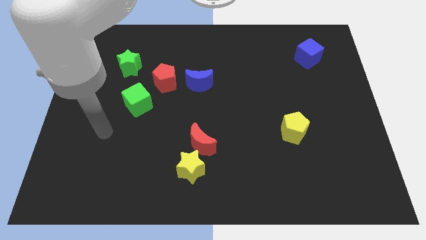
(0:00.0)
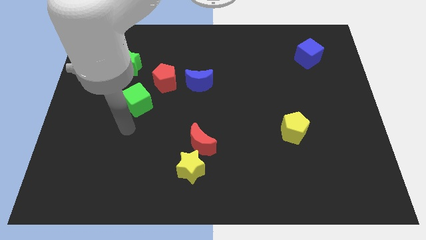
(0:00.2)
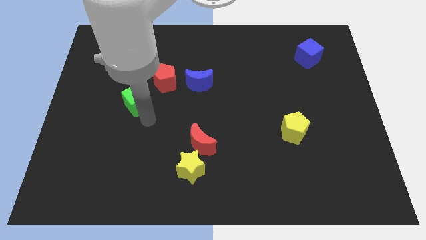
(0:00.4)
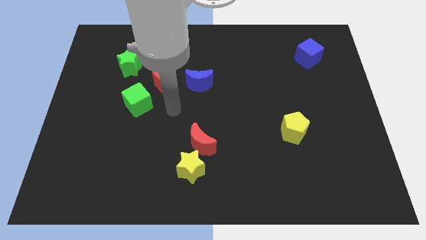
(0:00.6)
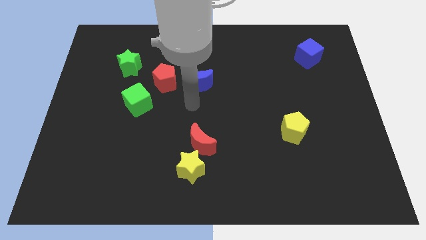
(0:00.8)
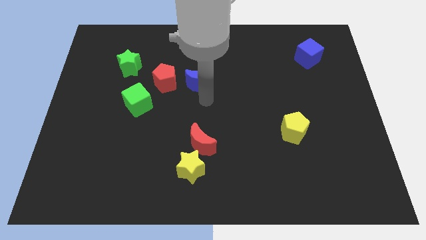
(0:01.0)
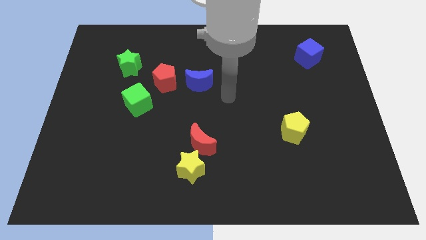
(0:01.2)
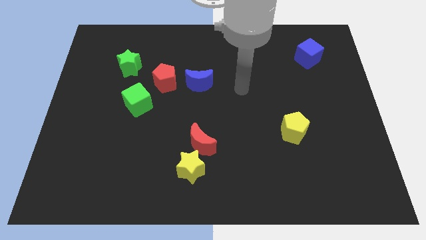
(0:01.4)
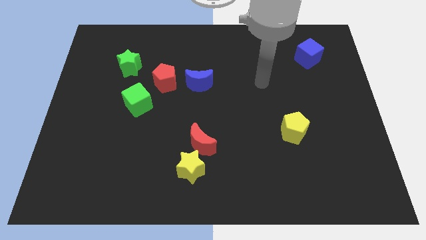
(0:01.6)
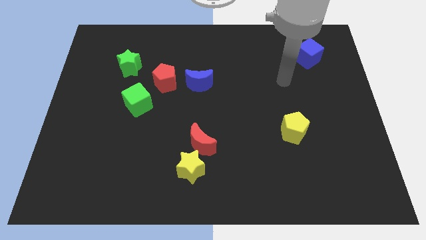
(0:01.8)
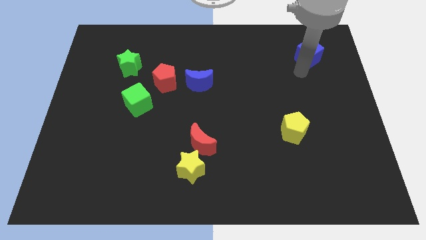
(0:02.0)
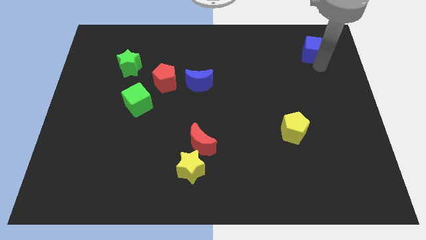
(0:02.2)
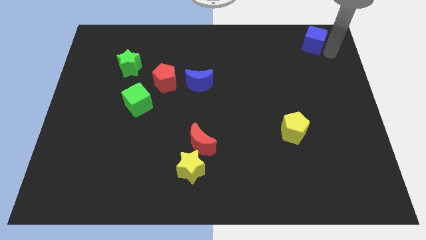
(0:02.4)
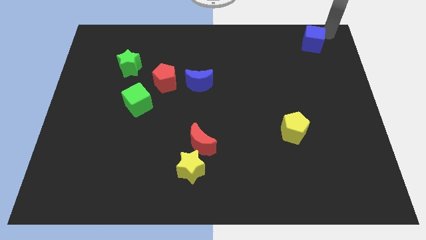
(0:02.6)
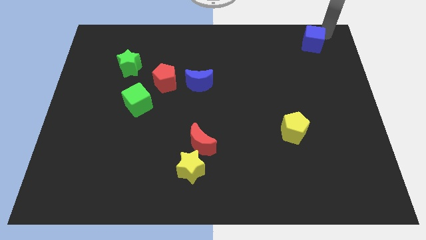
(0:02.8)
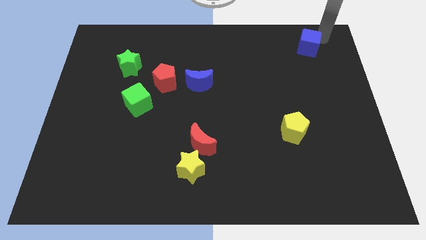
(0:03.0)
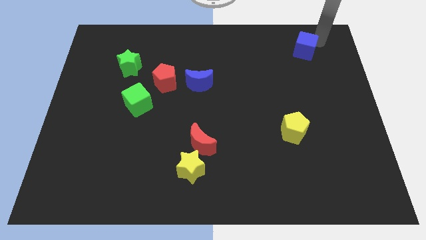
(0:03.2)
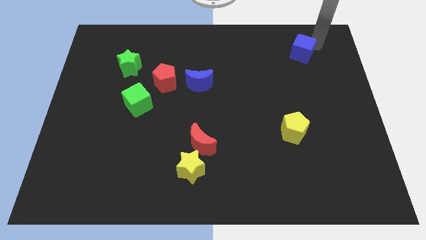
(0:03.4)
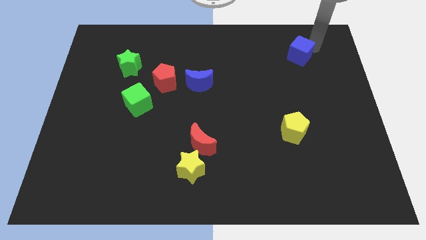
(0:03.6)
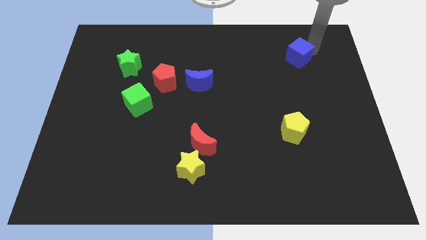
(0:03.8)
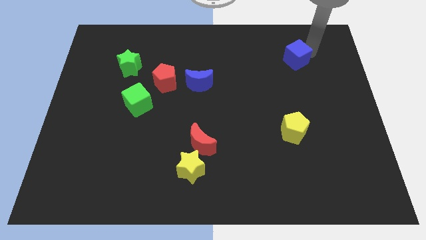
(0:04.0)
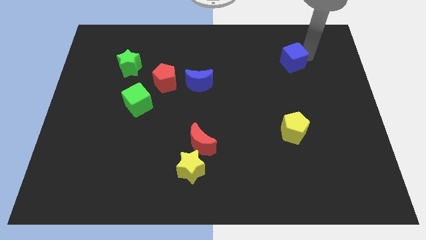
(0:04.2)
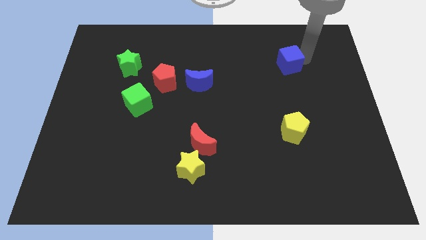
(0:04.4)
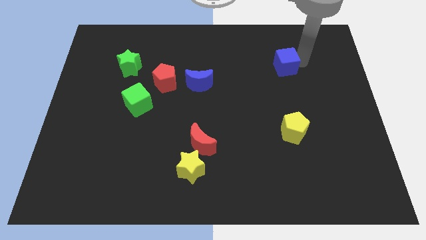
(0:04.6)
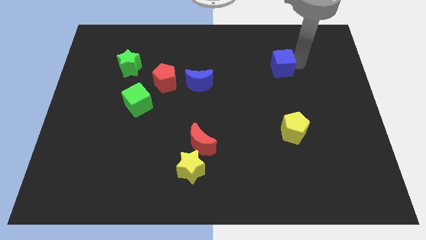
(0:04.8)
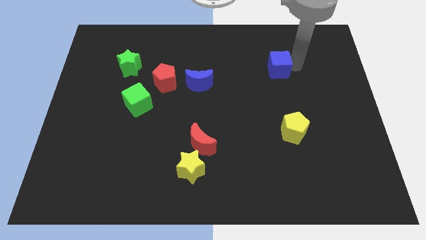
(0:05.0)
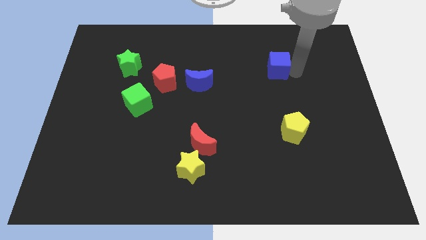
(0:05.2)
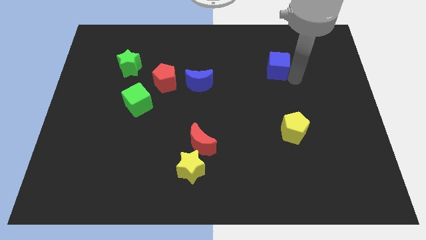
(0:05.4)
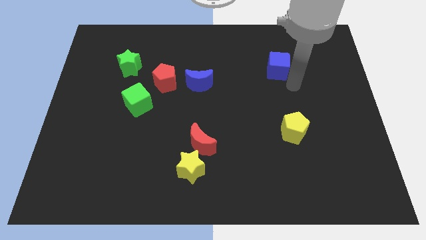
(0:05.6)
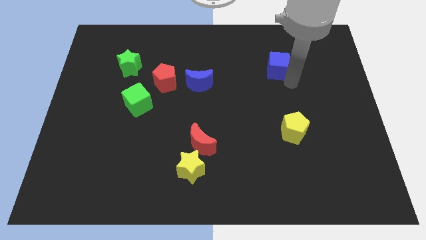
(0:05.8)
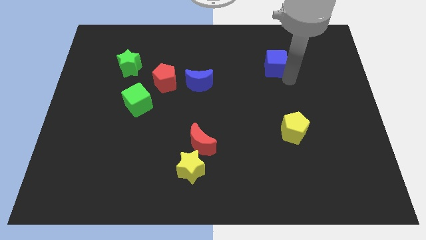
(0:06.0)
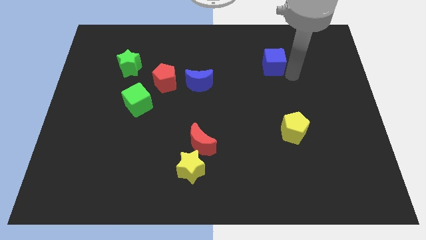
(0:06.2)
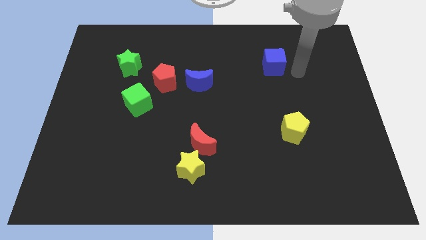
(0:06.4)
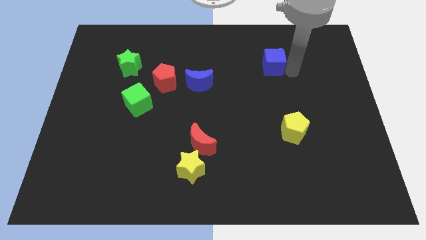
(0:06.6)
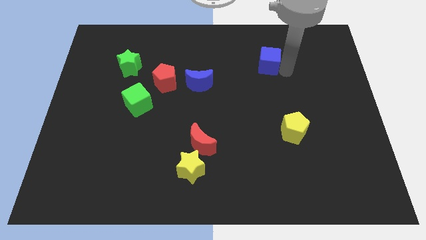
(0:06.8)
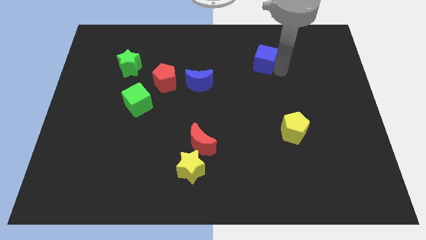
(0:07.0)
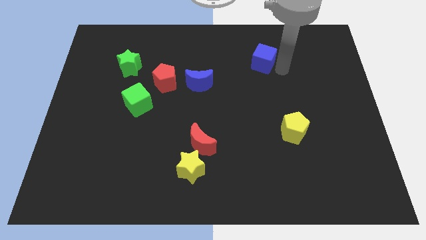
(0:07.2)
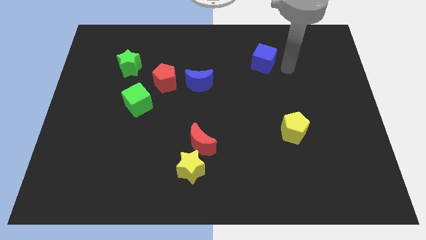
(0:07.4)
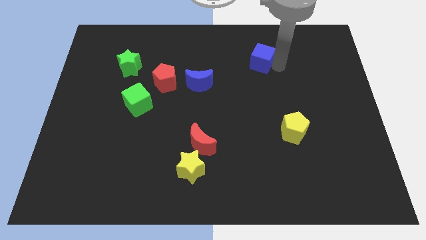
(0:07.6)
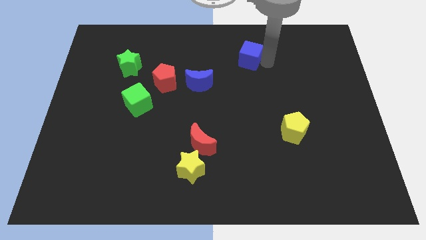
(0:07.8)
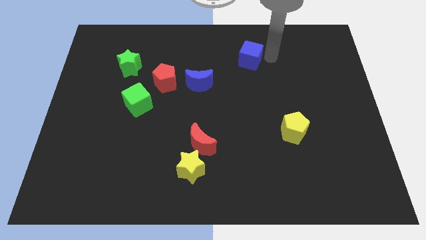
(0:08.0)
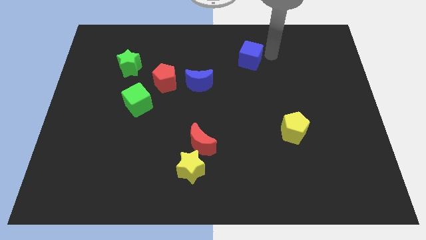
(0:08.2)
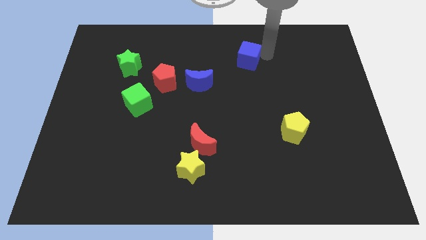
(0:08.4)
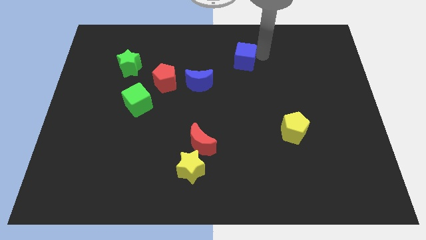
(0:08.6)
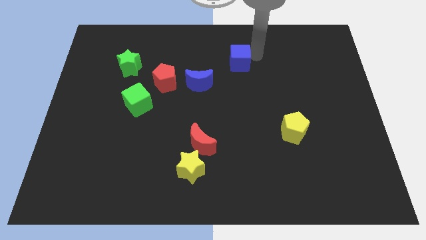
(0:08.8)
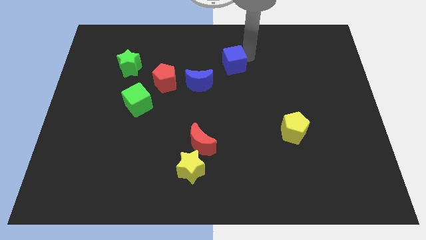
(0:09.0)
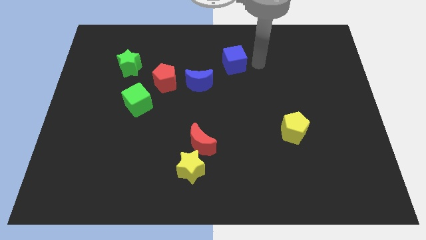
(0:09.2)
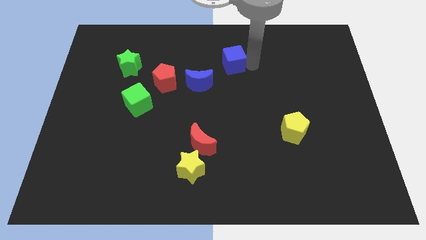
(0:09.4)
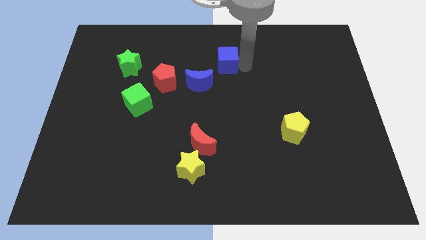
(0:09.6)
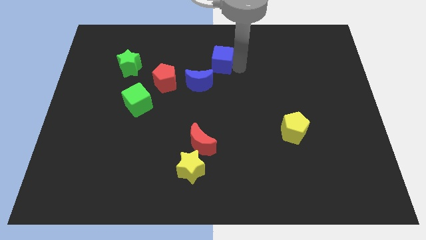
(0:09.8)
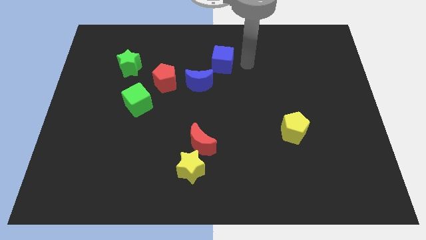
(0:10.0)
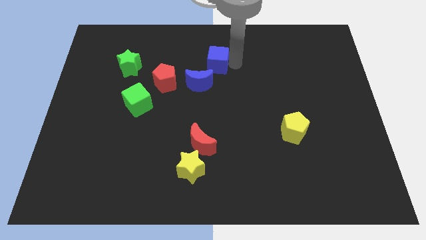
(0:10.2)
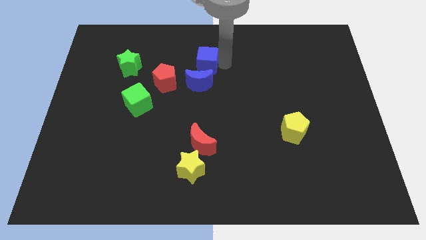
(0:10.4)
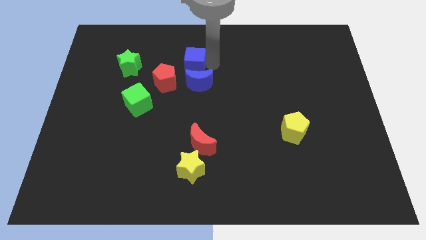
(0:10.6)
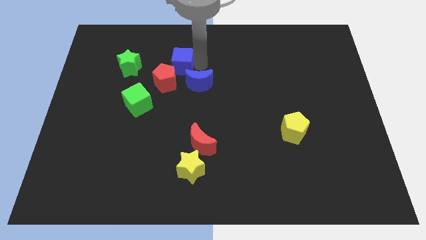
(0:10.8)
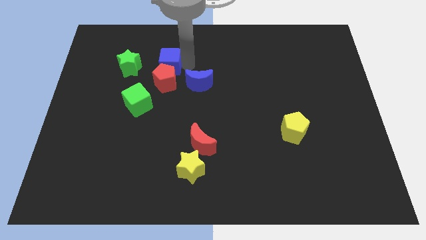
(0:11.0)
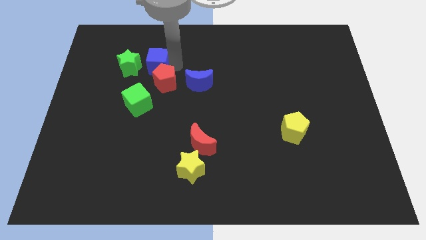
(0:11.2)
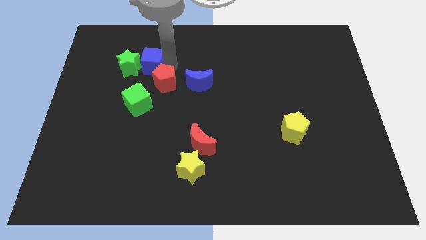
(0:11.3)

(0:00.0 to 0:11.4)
put the blue cube next to the green star

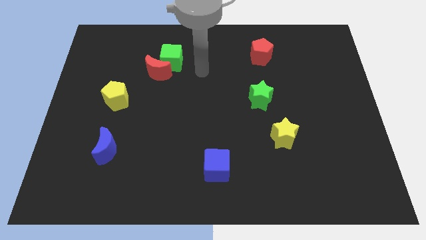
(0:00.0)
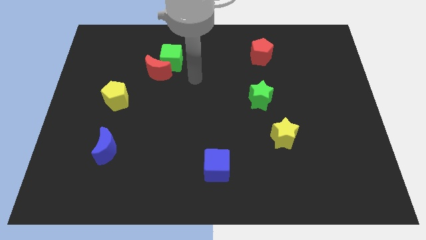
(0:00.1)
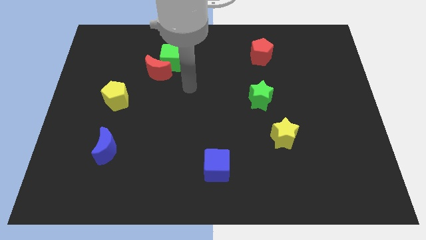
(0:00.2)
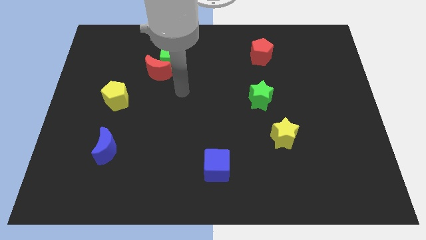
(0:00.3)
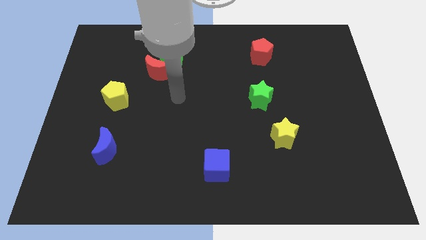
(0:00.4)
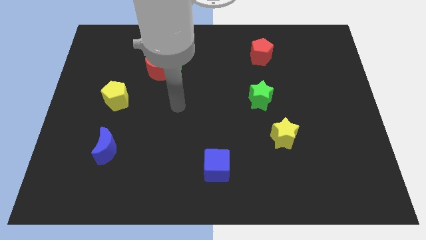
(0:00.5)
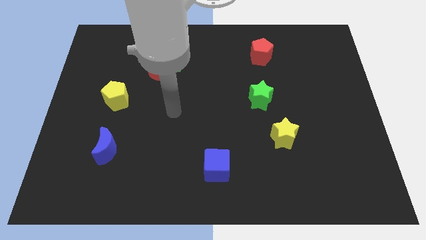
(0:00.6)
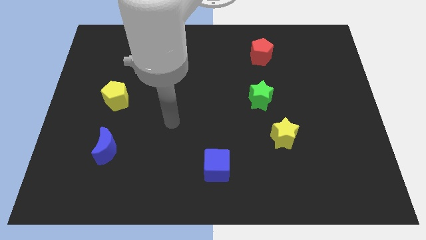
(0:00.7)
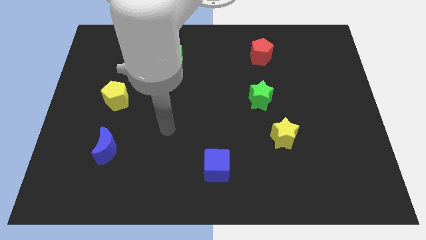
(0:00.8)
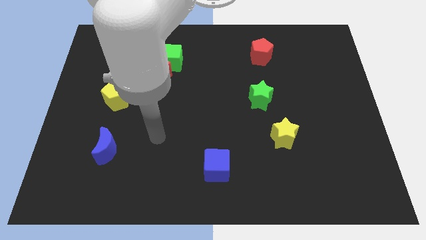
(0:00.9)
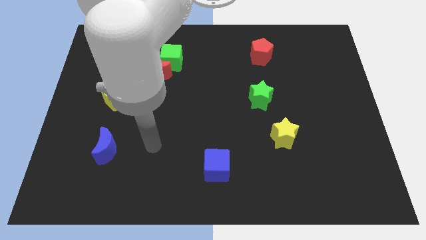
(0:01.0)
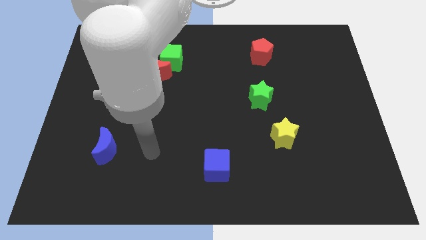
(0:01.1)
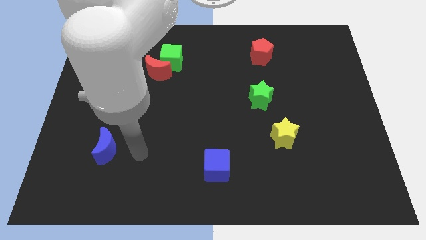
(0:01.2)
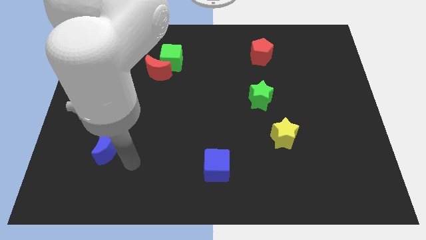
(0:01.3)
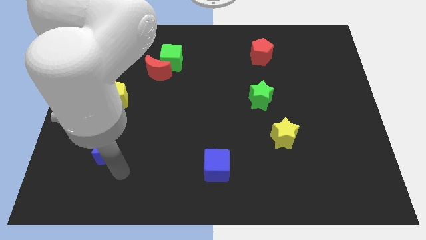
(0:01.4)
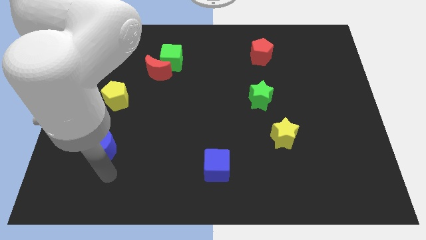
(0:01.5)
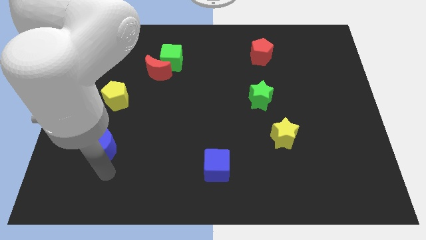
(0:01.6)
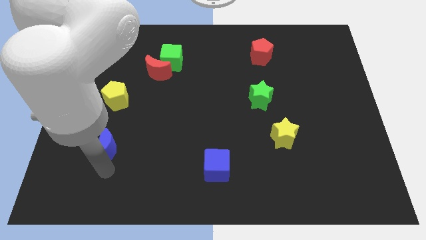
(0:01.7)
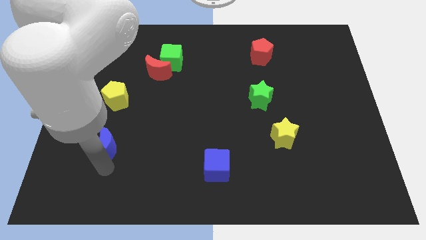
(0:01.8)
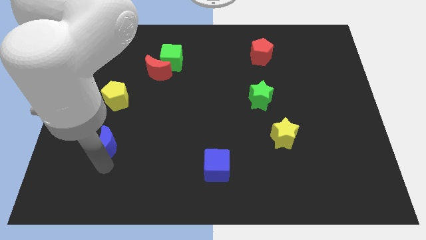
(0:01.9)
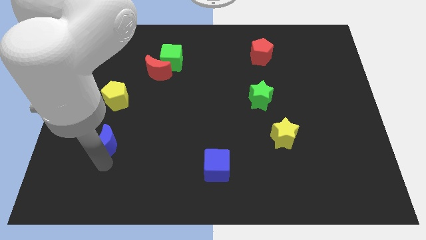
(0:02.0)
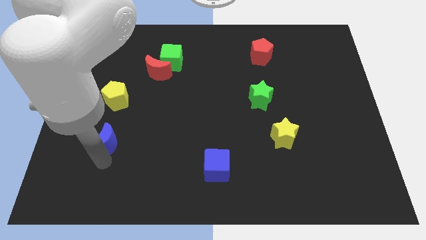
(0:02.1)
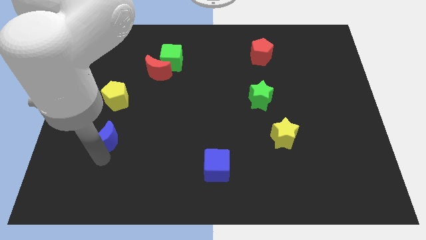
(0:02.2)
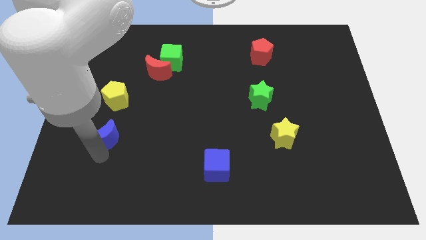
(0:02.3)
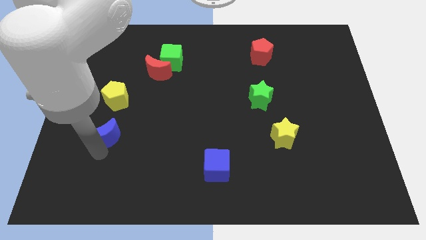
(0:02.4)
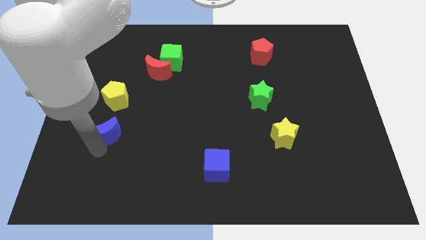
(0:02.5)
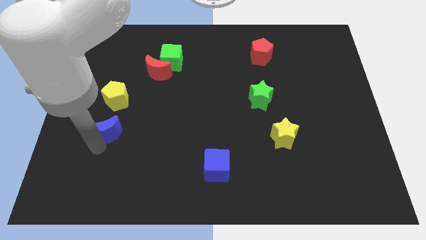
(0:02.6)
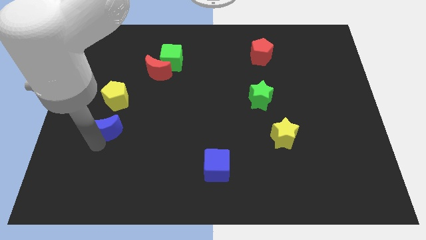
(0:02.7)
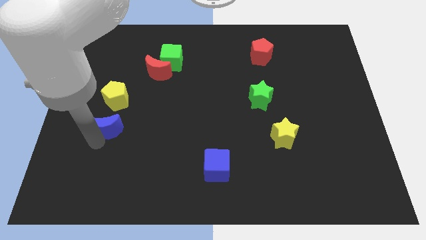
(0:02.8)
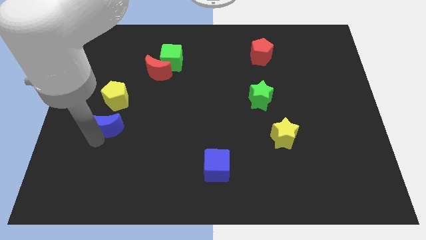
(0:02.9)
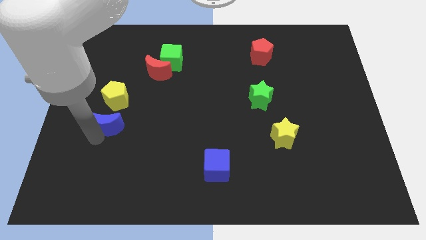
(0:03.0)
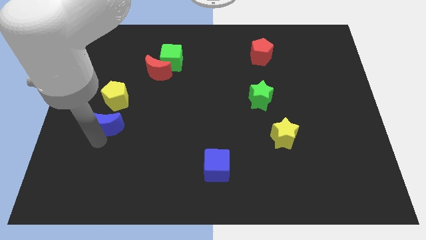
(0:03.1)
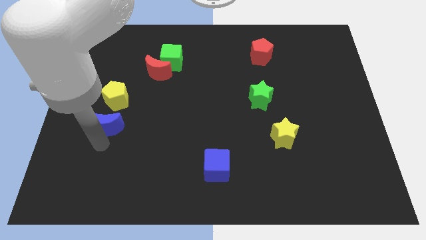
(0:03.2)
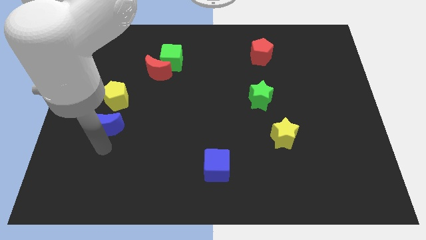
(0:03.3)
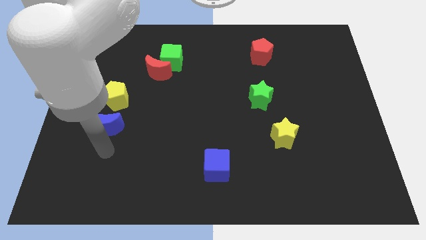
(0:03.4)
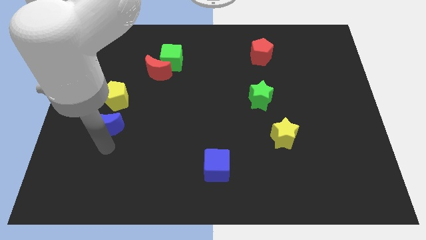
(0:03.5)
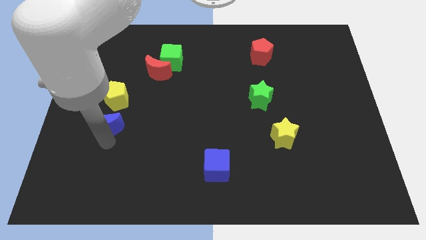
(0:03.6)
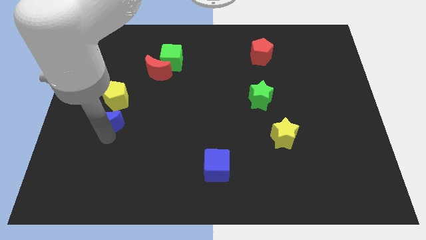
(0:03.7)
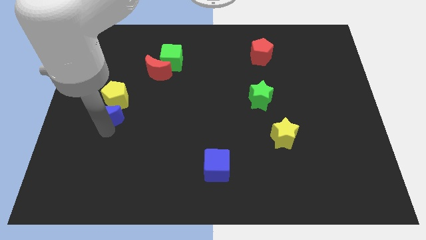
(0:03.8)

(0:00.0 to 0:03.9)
move the blue moon towards the yellow pentagon
